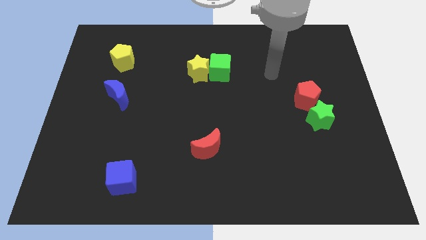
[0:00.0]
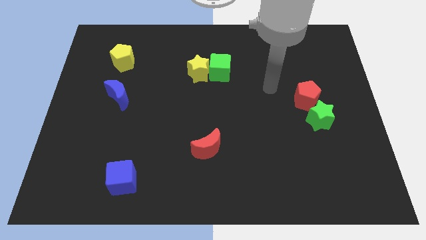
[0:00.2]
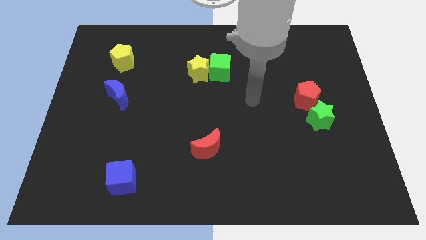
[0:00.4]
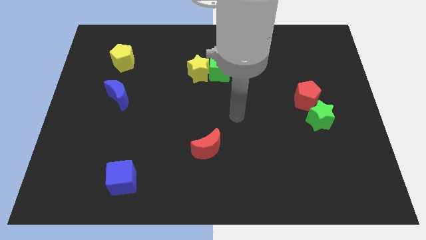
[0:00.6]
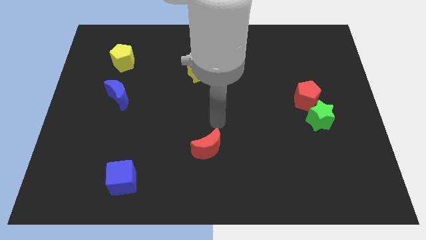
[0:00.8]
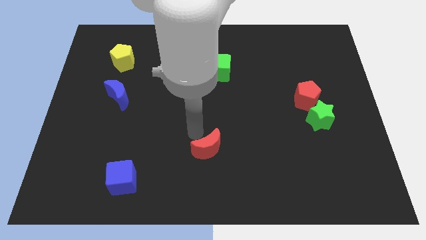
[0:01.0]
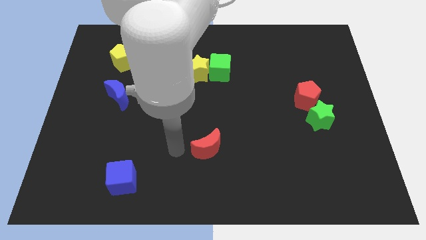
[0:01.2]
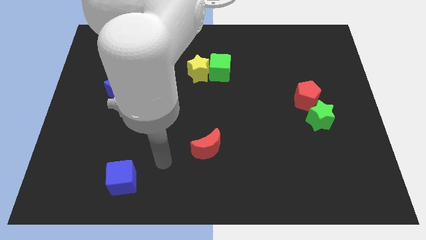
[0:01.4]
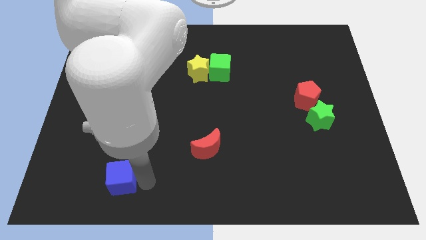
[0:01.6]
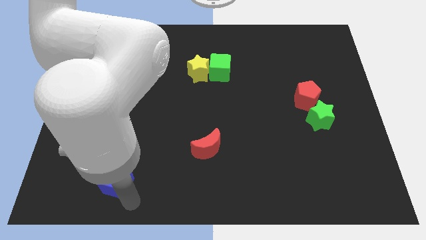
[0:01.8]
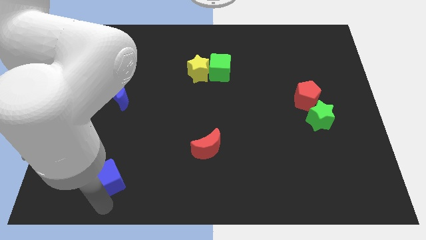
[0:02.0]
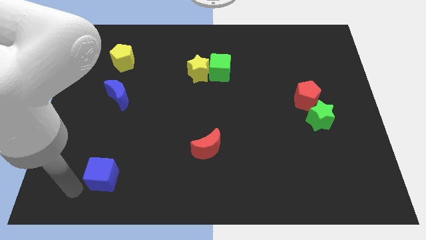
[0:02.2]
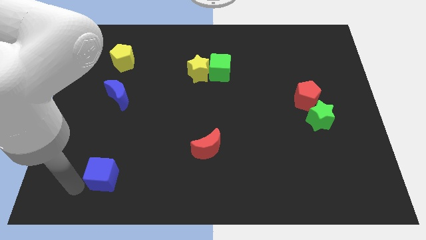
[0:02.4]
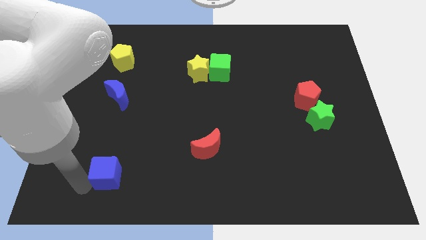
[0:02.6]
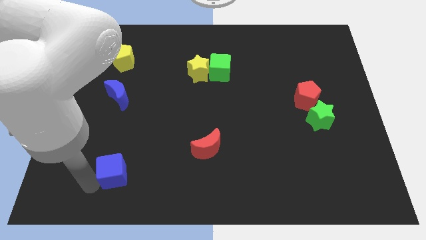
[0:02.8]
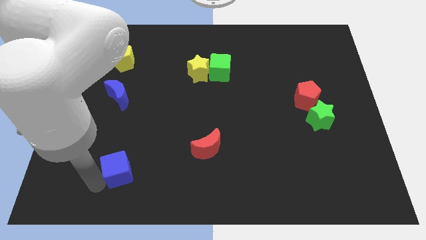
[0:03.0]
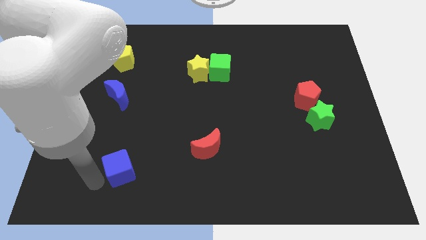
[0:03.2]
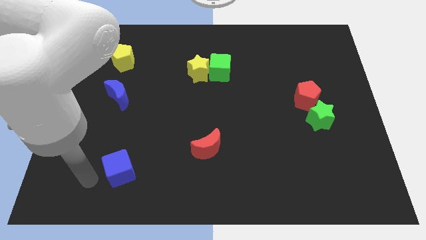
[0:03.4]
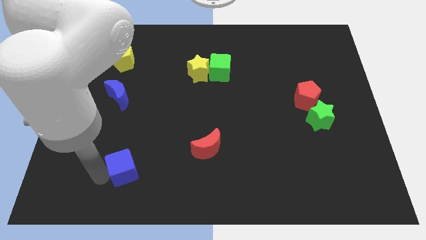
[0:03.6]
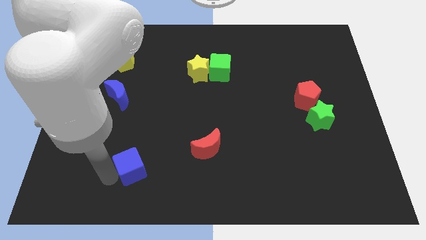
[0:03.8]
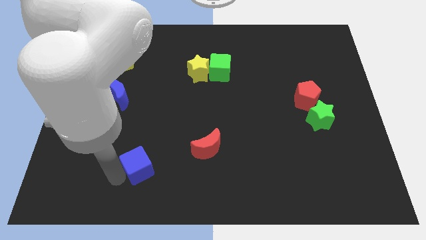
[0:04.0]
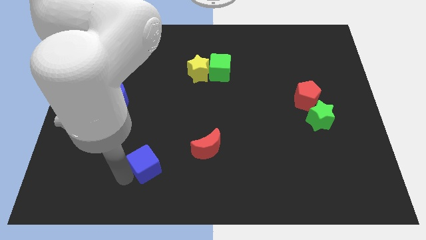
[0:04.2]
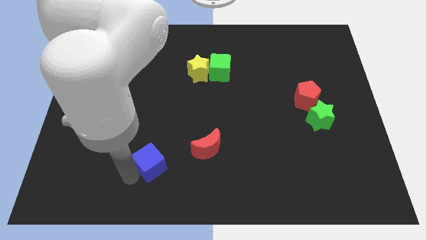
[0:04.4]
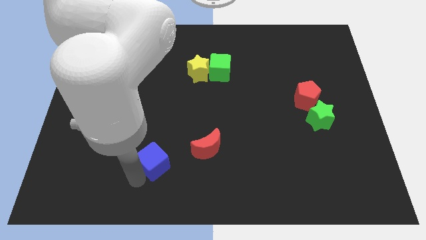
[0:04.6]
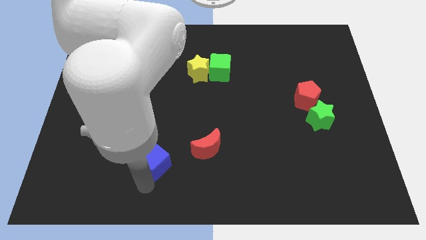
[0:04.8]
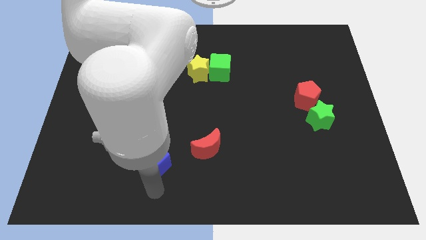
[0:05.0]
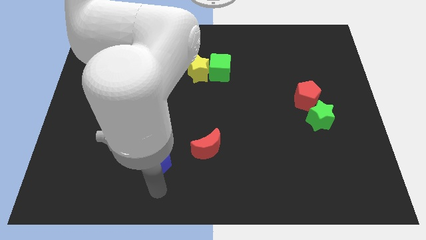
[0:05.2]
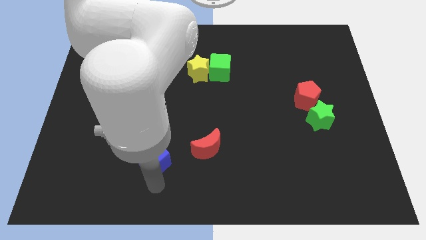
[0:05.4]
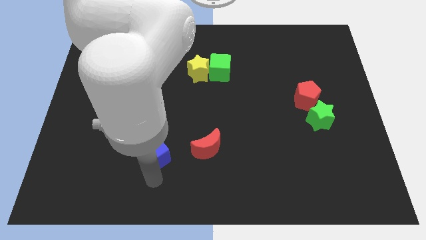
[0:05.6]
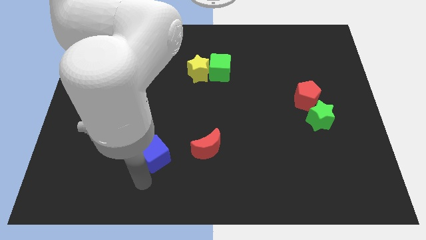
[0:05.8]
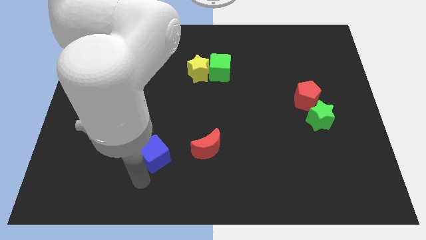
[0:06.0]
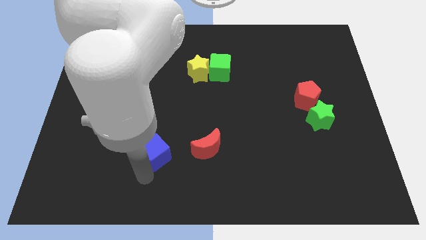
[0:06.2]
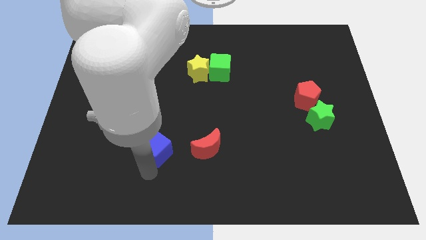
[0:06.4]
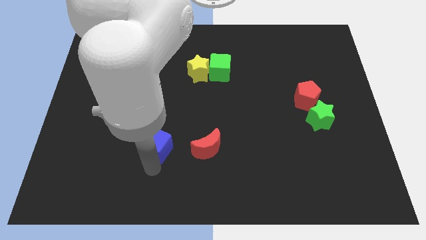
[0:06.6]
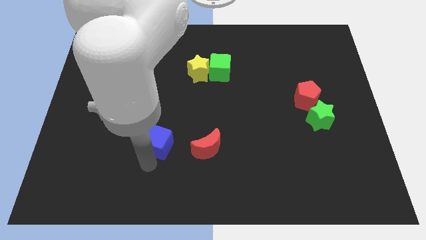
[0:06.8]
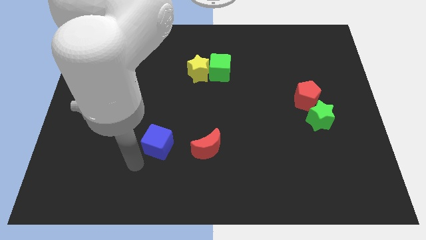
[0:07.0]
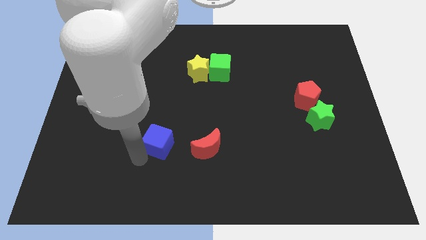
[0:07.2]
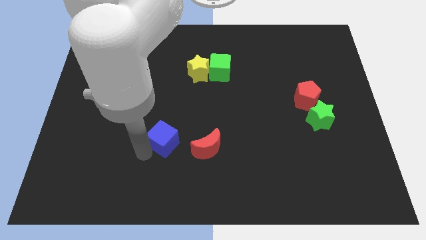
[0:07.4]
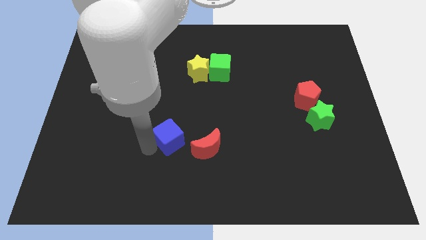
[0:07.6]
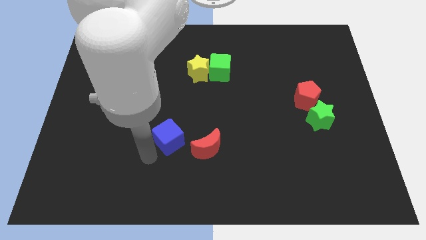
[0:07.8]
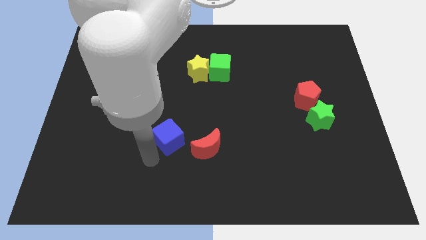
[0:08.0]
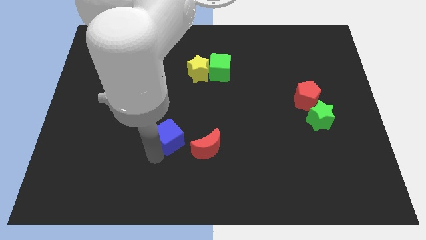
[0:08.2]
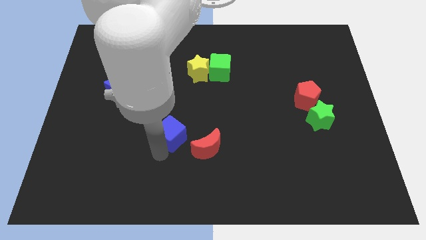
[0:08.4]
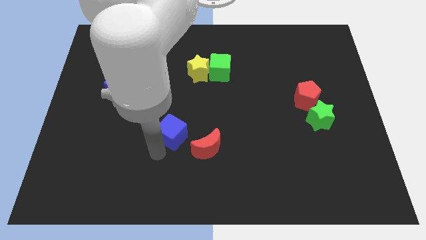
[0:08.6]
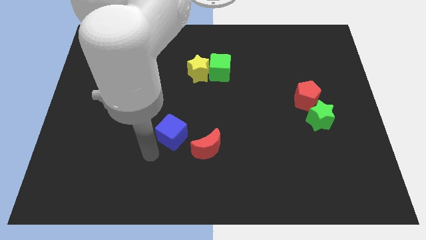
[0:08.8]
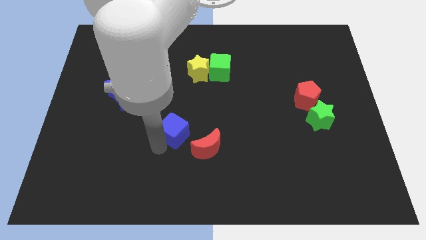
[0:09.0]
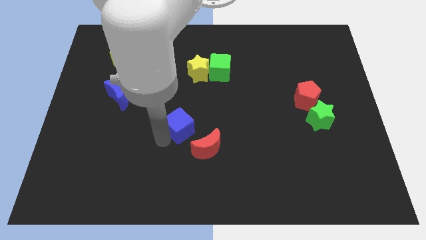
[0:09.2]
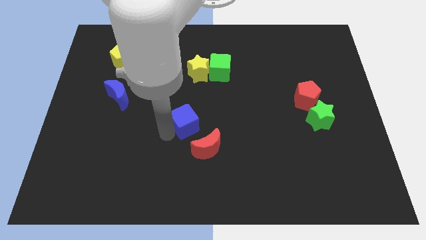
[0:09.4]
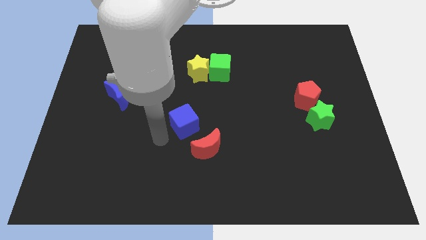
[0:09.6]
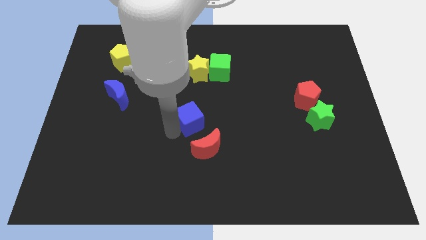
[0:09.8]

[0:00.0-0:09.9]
put the blue cube to the top of the red moon

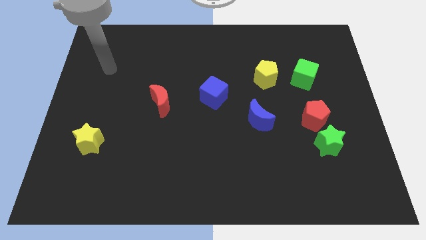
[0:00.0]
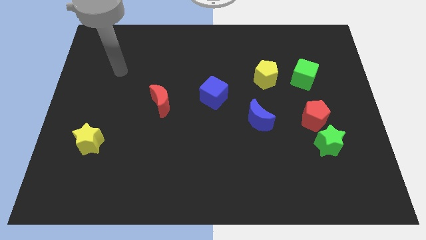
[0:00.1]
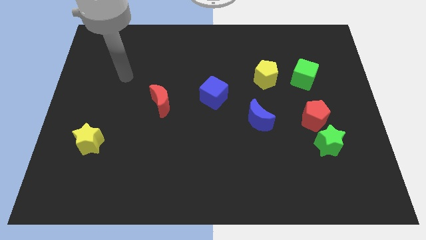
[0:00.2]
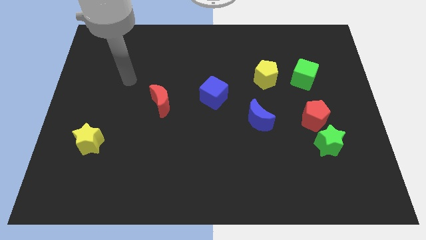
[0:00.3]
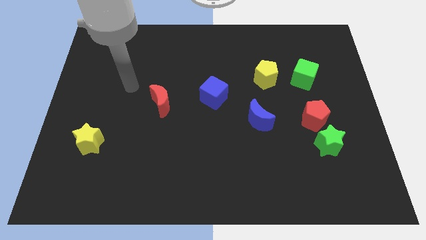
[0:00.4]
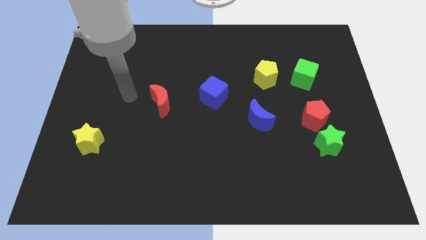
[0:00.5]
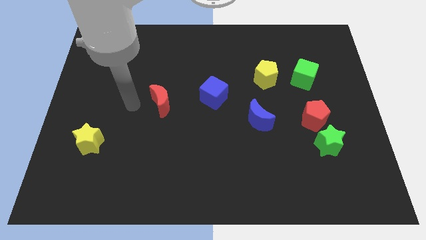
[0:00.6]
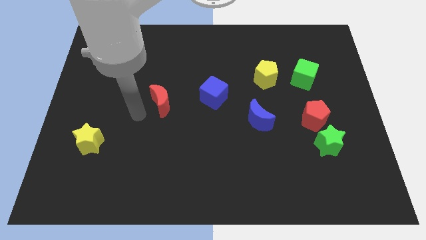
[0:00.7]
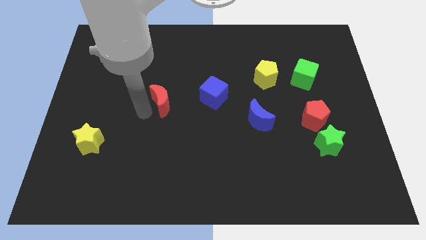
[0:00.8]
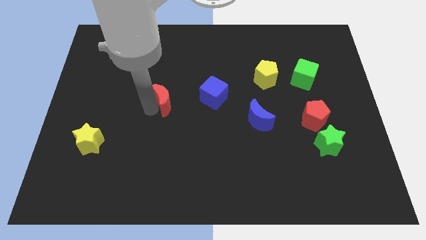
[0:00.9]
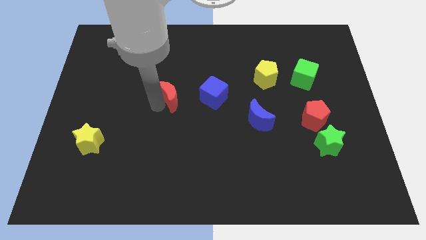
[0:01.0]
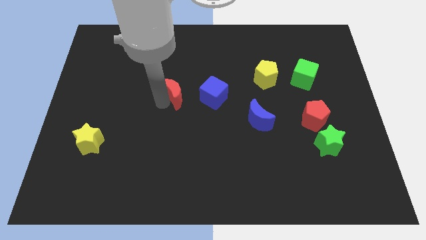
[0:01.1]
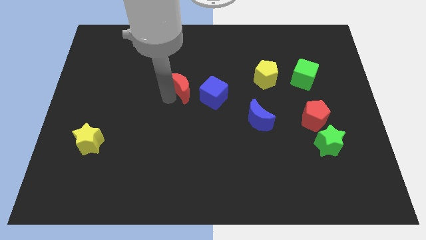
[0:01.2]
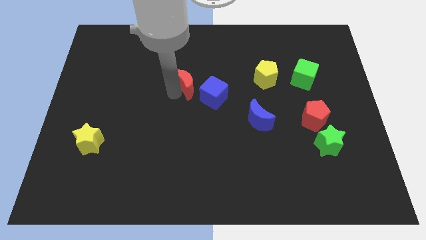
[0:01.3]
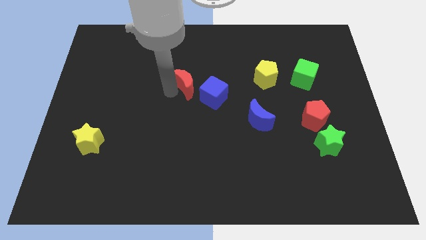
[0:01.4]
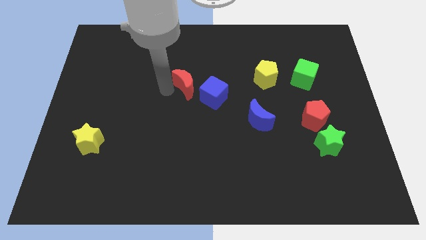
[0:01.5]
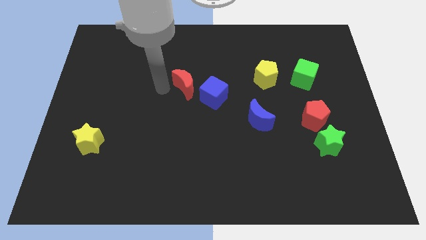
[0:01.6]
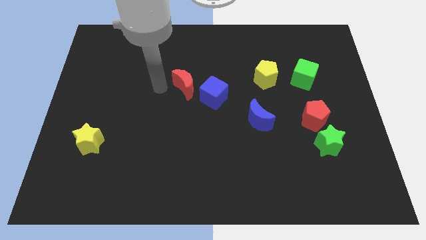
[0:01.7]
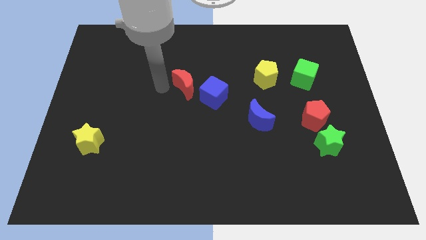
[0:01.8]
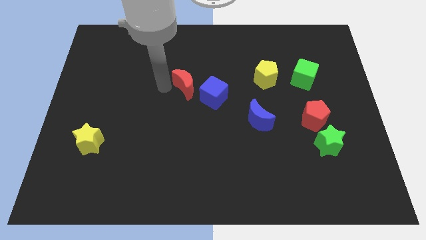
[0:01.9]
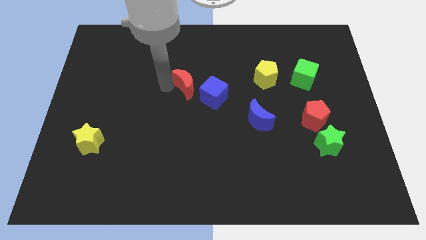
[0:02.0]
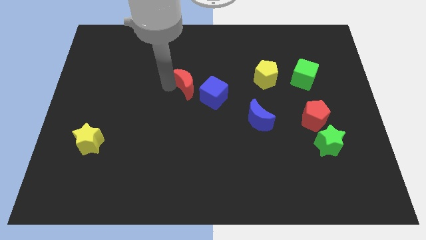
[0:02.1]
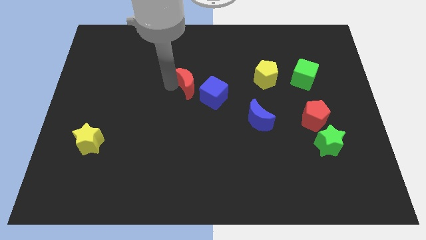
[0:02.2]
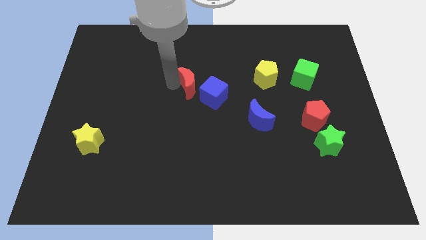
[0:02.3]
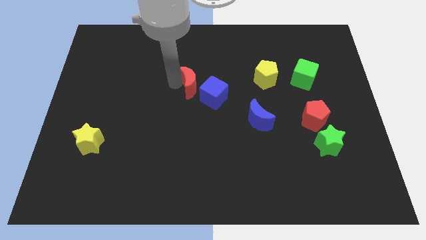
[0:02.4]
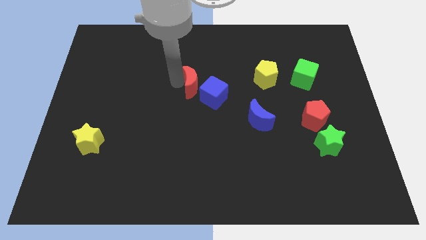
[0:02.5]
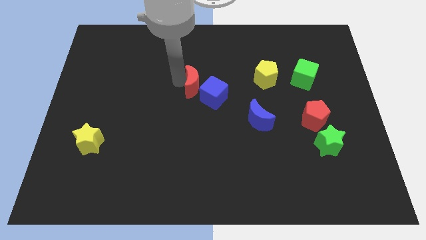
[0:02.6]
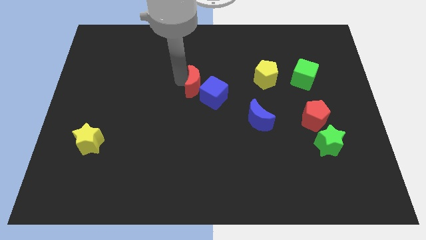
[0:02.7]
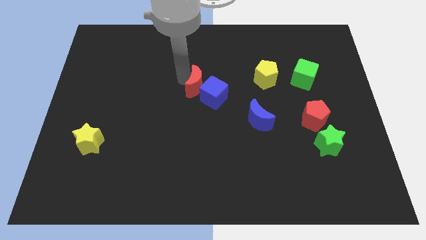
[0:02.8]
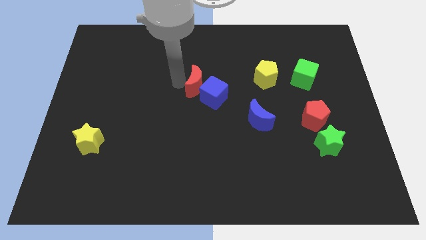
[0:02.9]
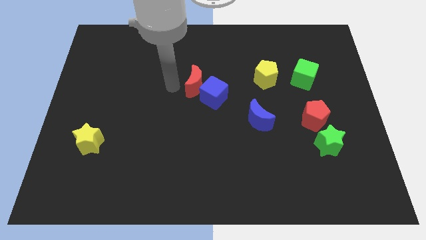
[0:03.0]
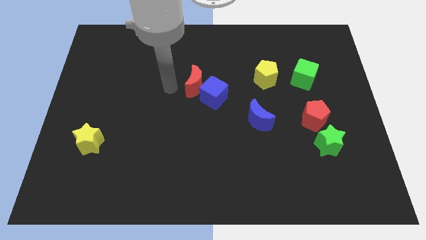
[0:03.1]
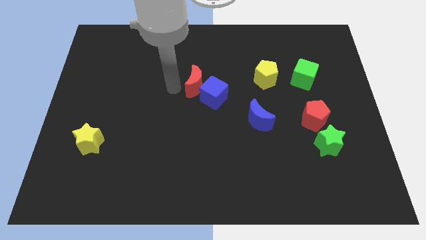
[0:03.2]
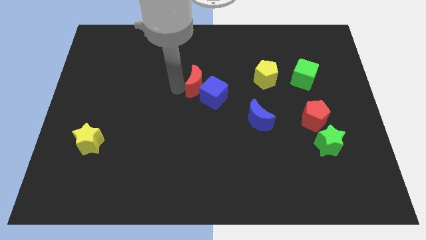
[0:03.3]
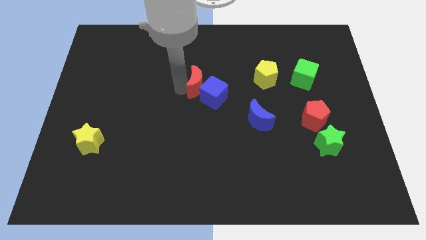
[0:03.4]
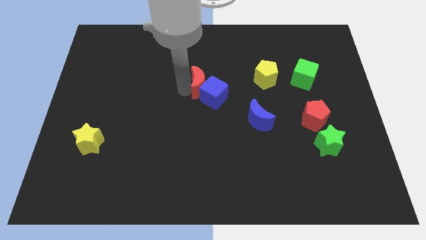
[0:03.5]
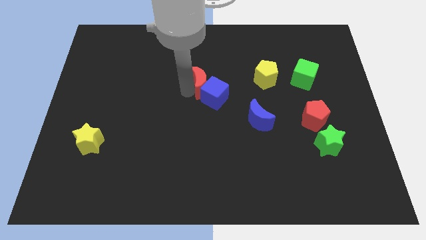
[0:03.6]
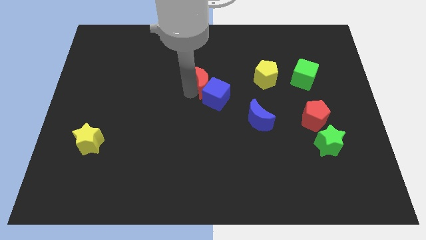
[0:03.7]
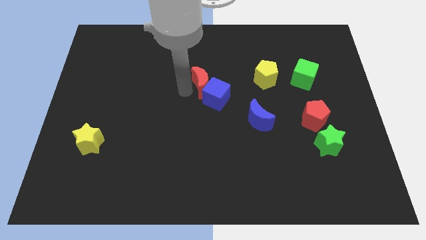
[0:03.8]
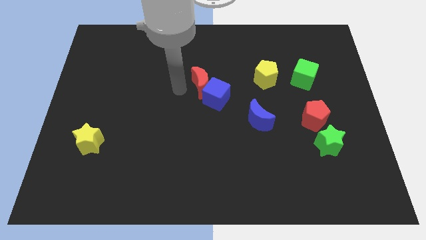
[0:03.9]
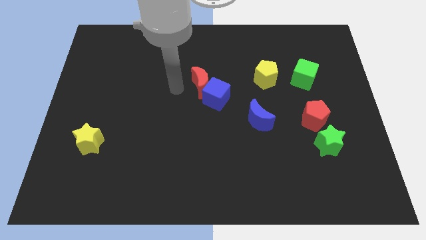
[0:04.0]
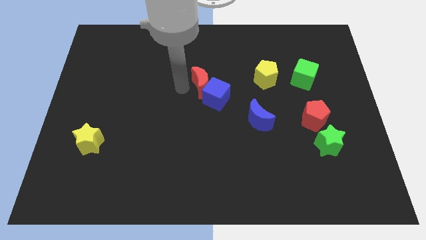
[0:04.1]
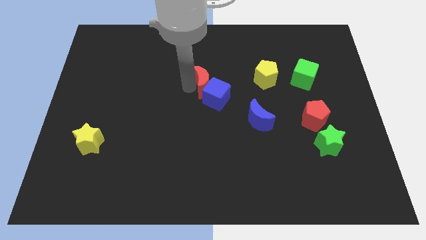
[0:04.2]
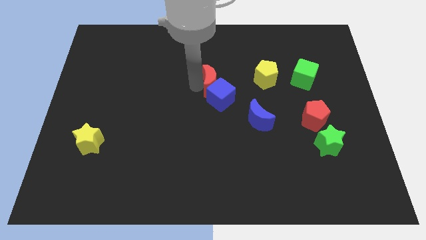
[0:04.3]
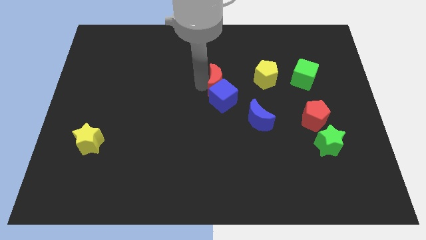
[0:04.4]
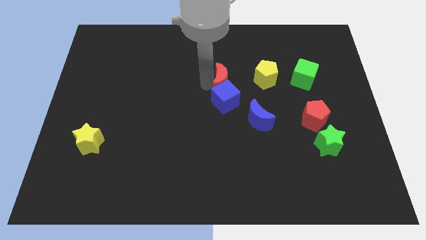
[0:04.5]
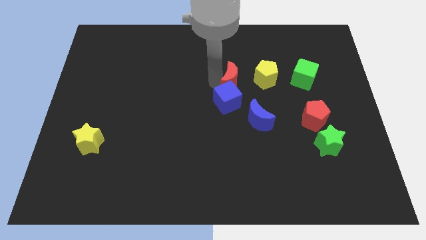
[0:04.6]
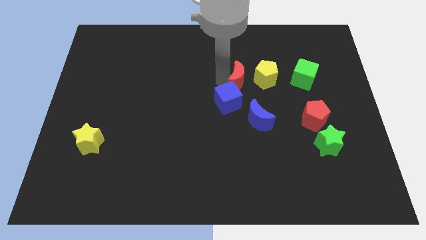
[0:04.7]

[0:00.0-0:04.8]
move the red moon to the top side of the blue moon
